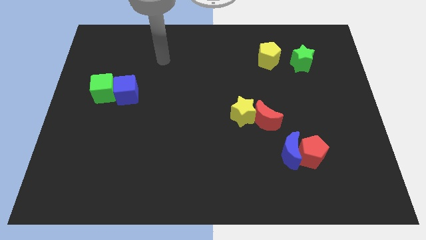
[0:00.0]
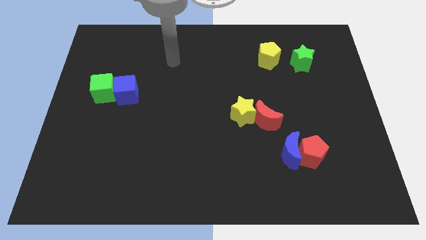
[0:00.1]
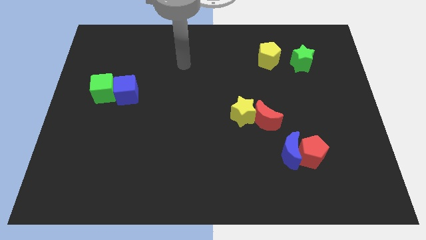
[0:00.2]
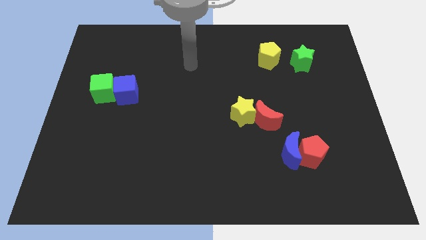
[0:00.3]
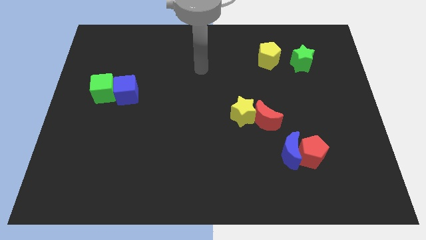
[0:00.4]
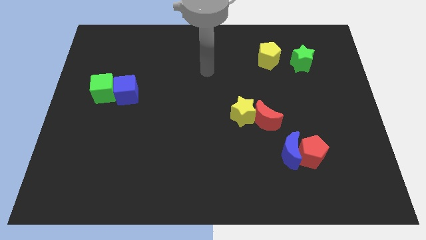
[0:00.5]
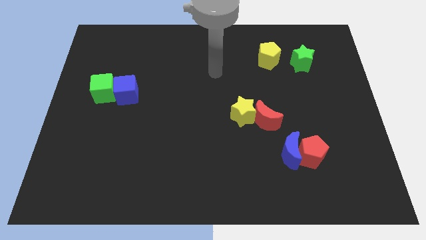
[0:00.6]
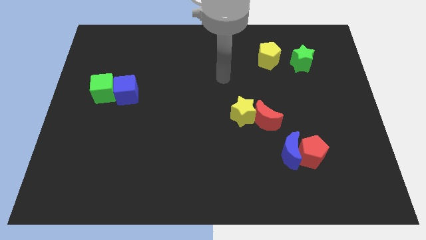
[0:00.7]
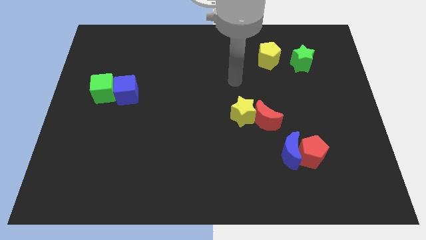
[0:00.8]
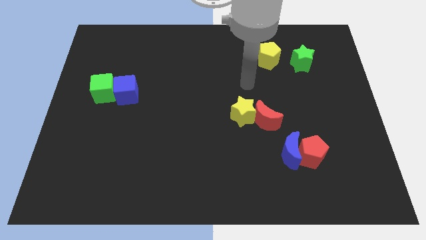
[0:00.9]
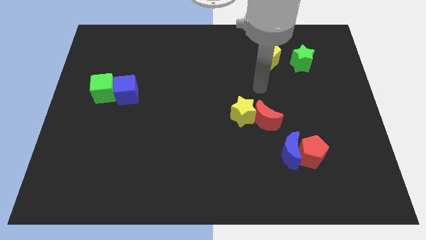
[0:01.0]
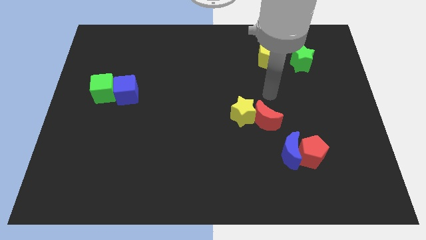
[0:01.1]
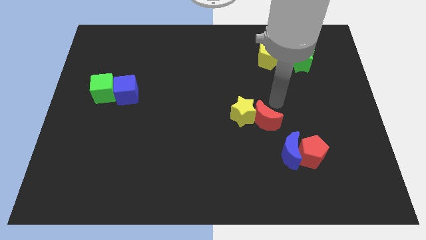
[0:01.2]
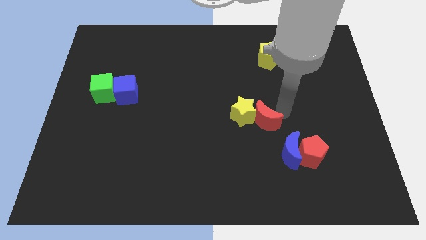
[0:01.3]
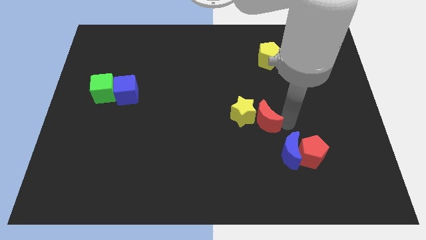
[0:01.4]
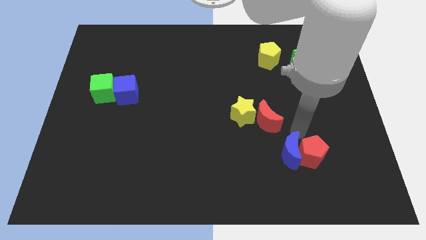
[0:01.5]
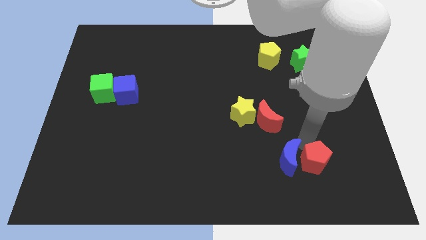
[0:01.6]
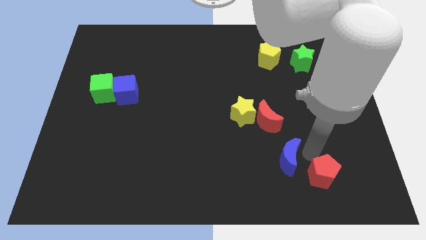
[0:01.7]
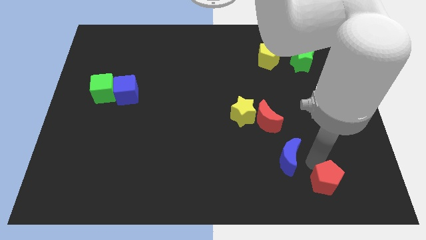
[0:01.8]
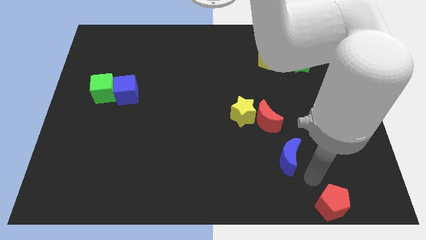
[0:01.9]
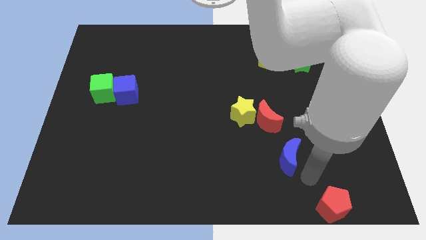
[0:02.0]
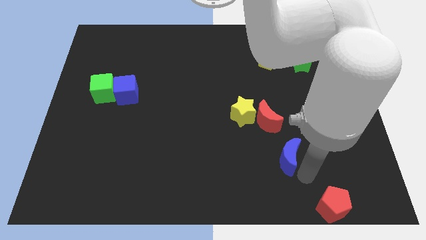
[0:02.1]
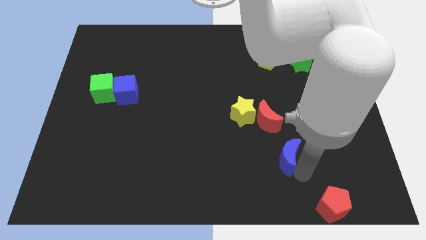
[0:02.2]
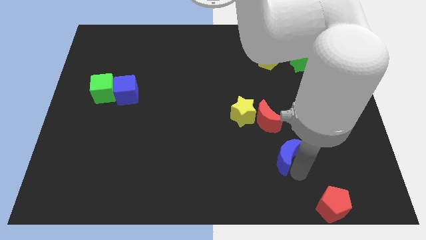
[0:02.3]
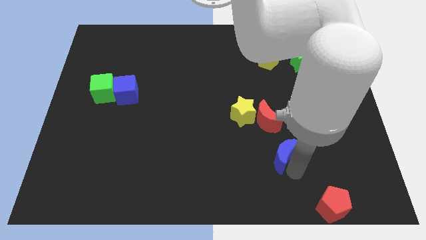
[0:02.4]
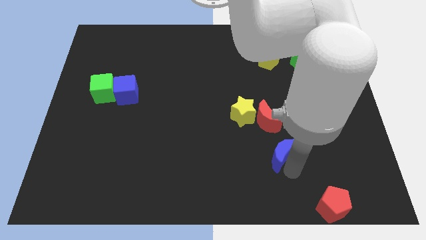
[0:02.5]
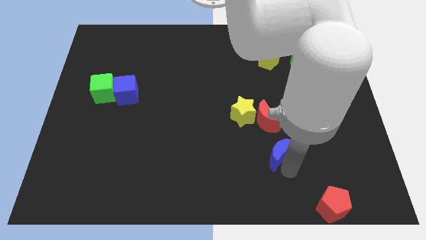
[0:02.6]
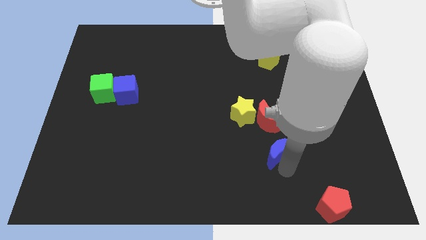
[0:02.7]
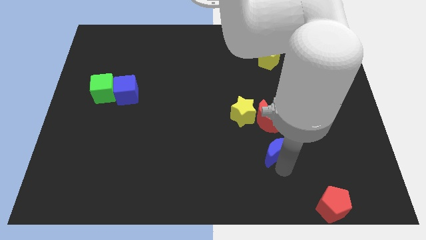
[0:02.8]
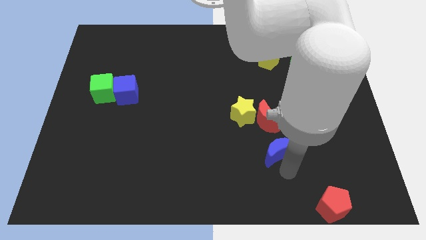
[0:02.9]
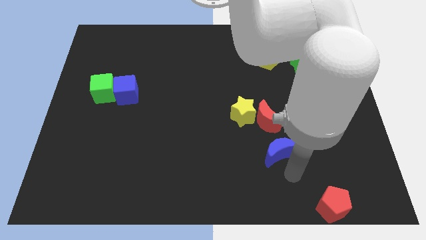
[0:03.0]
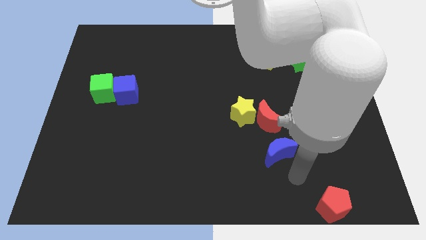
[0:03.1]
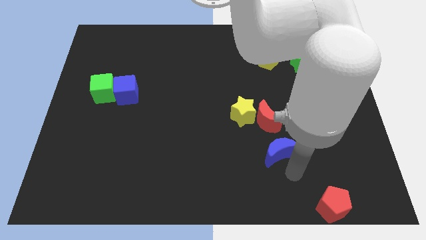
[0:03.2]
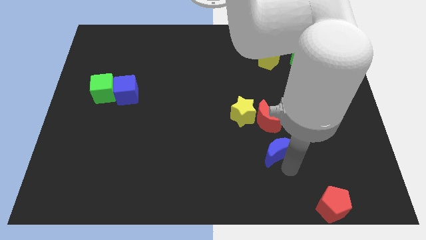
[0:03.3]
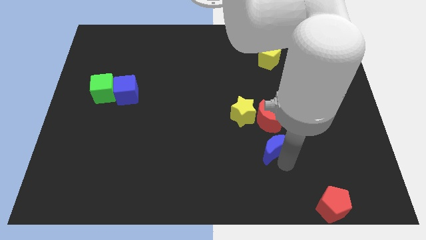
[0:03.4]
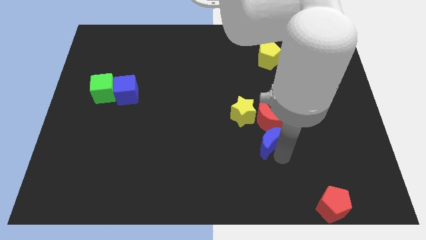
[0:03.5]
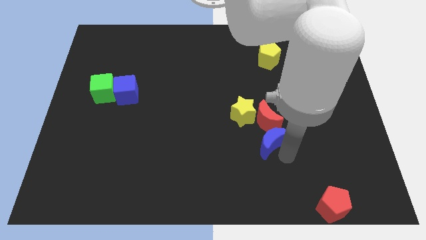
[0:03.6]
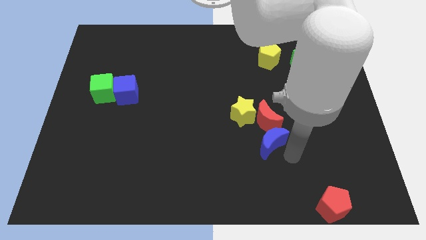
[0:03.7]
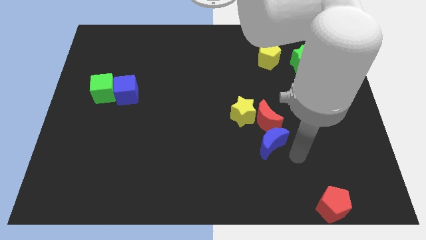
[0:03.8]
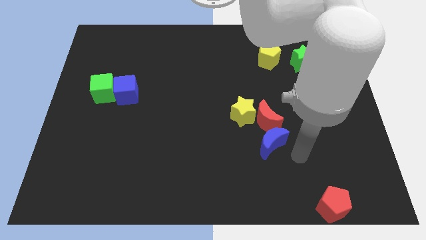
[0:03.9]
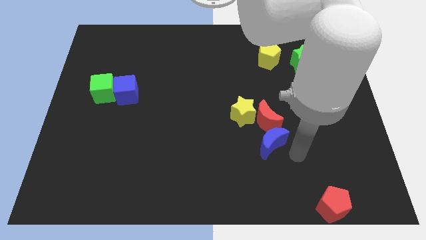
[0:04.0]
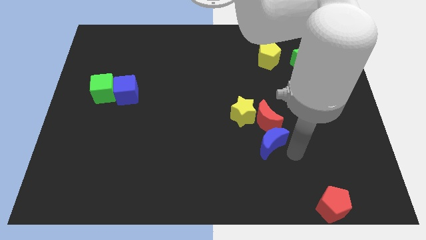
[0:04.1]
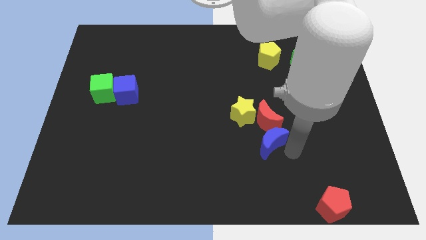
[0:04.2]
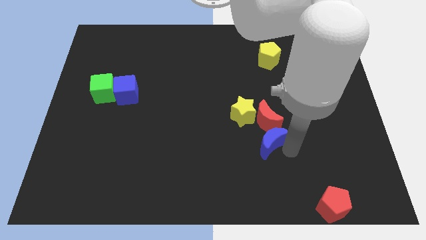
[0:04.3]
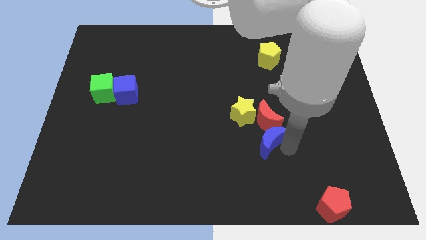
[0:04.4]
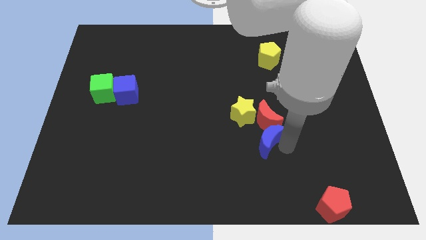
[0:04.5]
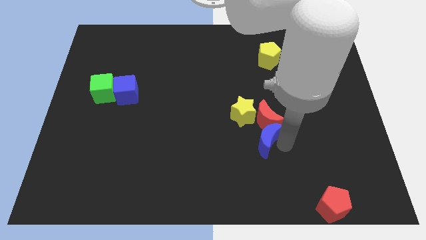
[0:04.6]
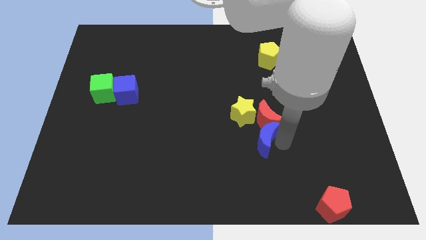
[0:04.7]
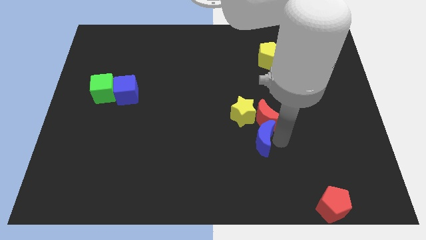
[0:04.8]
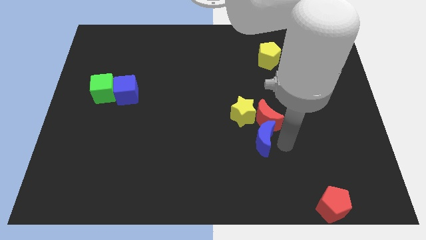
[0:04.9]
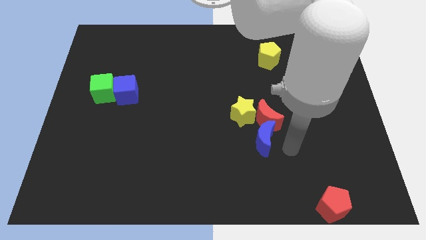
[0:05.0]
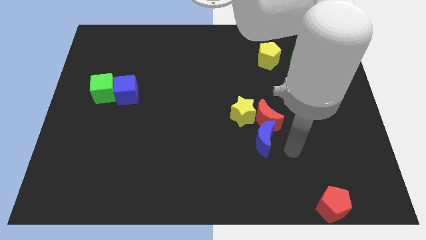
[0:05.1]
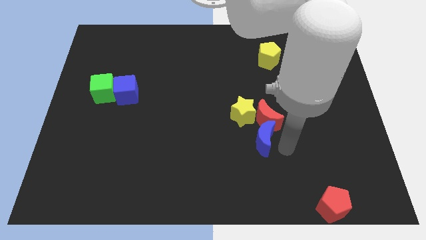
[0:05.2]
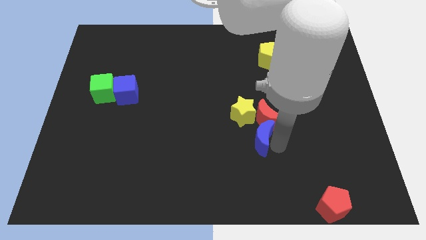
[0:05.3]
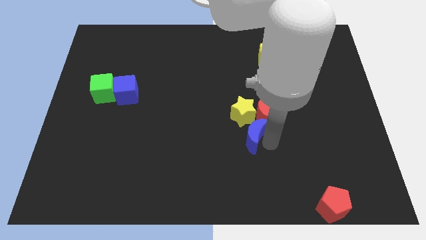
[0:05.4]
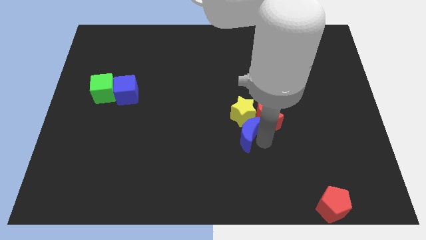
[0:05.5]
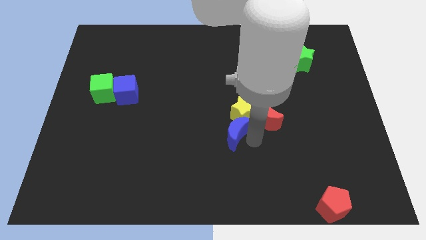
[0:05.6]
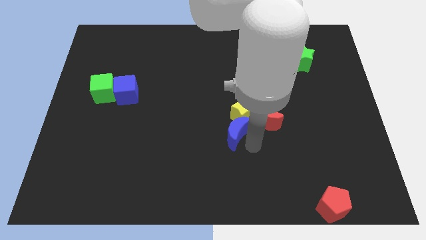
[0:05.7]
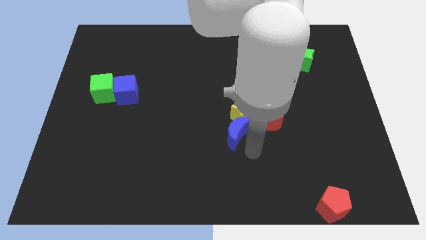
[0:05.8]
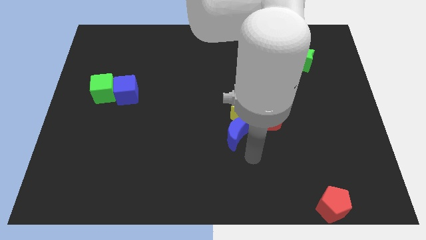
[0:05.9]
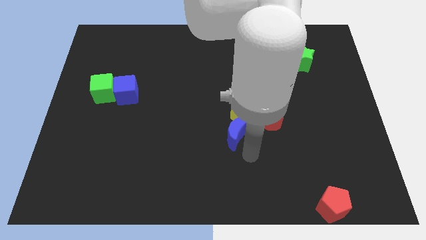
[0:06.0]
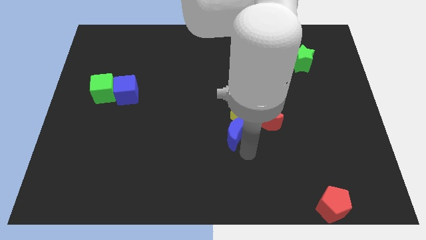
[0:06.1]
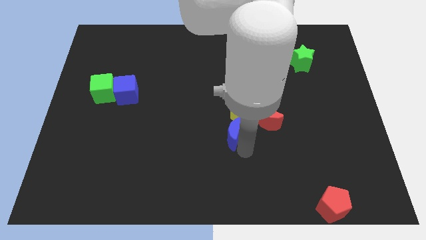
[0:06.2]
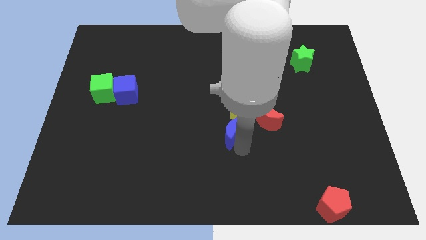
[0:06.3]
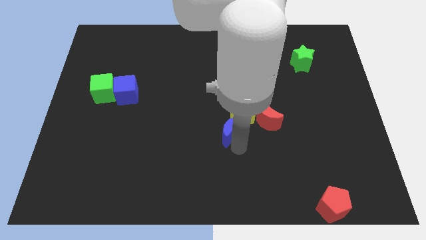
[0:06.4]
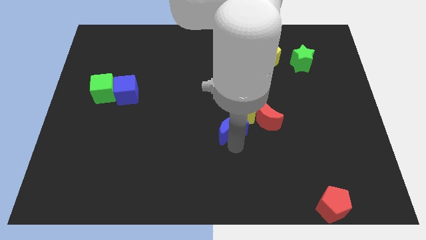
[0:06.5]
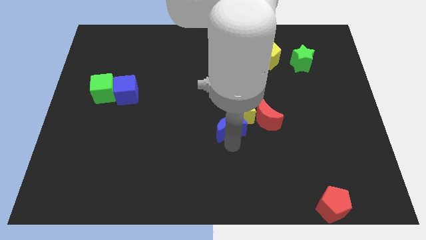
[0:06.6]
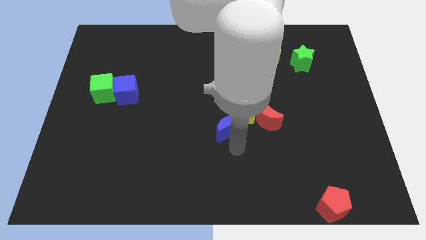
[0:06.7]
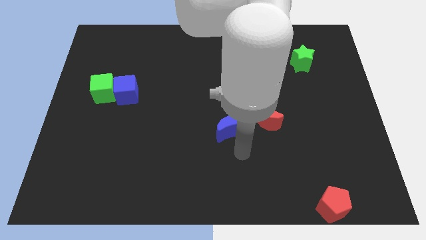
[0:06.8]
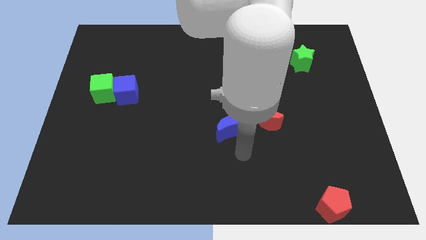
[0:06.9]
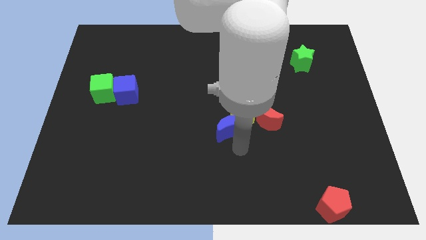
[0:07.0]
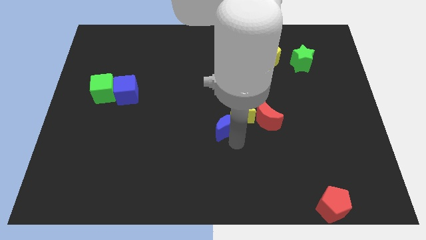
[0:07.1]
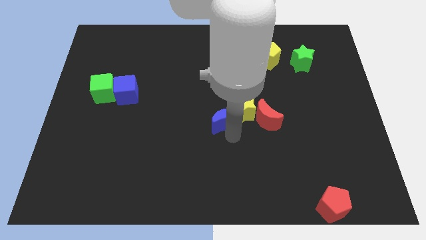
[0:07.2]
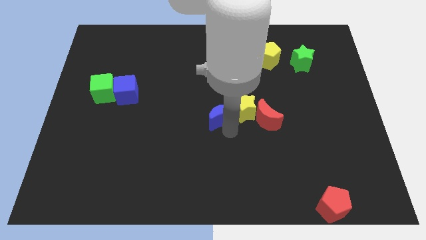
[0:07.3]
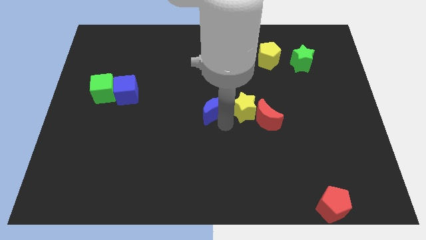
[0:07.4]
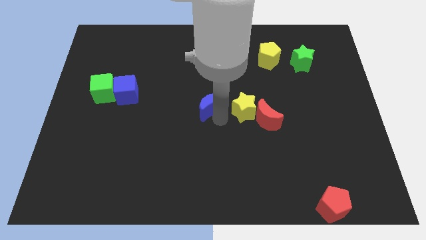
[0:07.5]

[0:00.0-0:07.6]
move the blue moon diagonally upwards and to the left

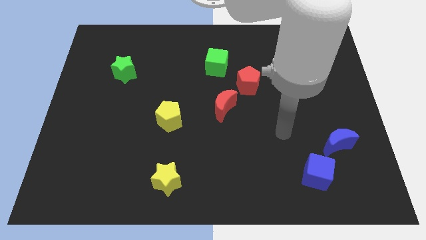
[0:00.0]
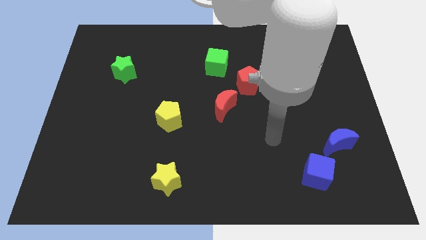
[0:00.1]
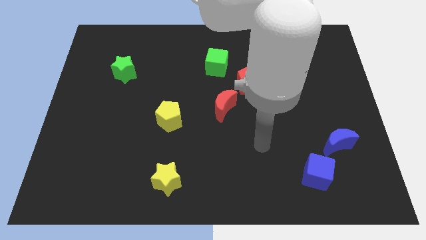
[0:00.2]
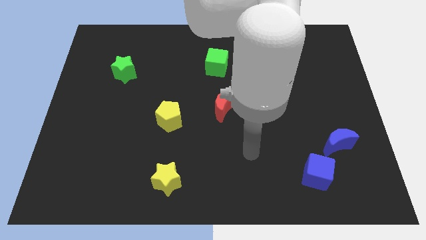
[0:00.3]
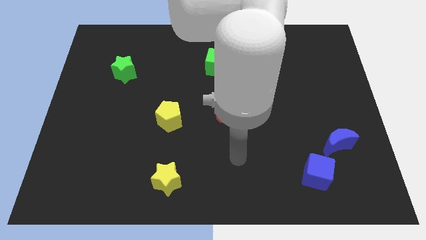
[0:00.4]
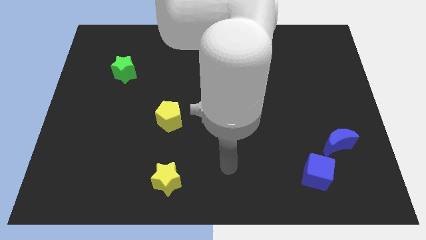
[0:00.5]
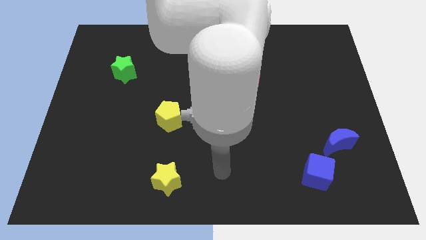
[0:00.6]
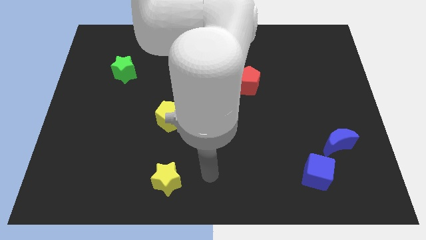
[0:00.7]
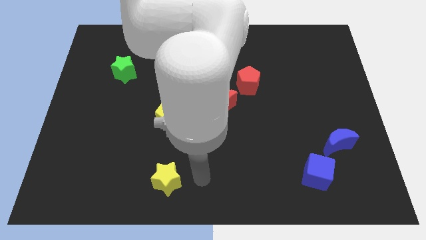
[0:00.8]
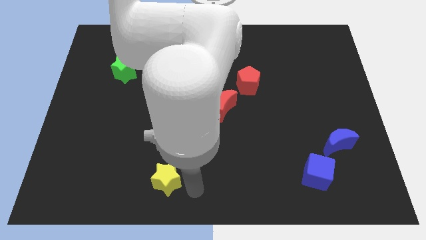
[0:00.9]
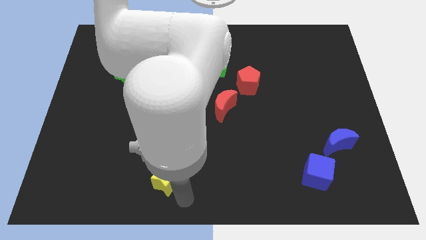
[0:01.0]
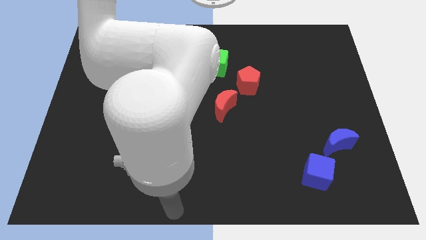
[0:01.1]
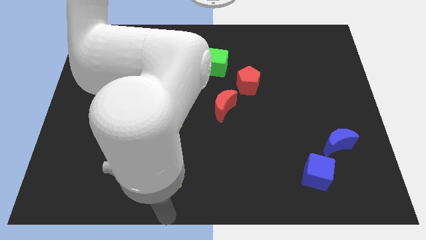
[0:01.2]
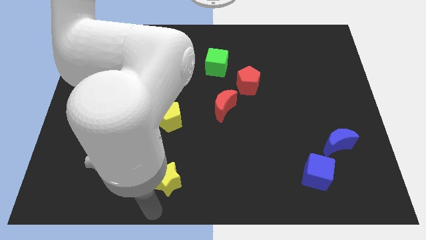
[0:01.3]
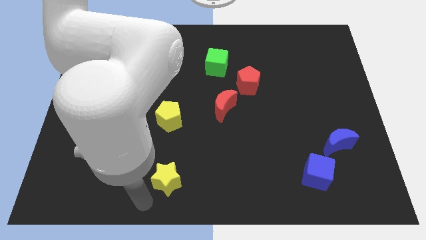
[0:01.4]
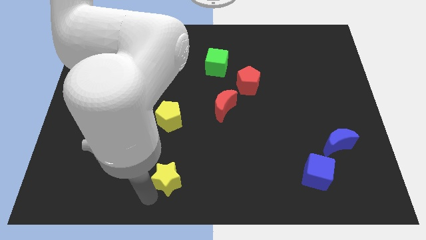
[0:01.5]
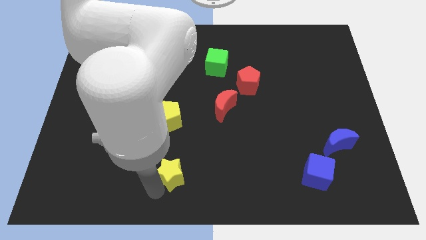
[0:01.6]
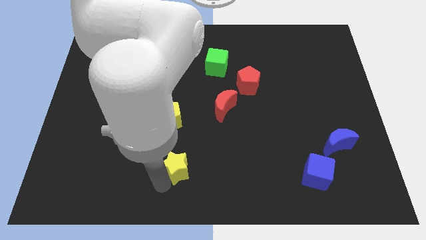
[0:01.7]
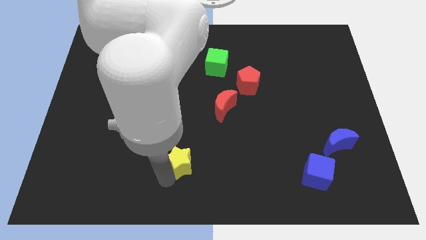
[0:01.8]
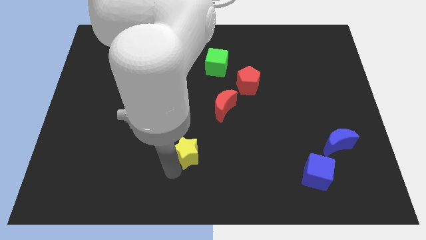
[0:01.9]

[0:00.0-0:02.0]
slide the yellow star upwards and right diagonally a bit
